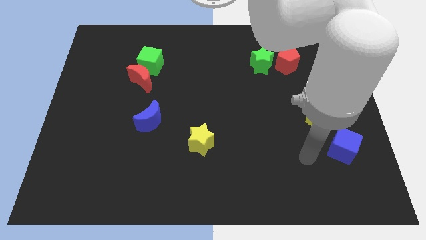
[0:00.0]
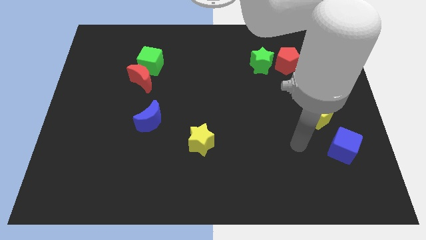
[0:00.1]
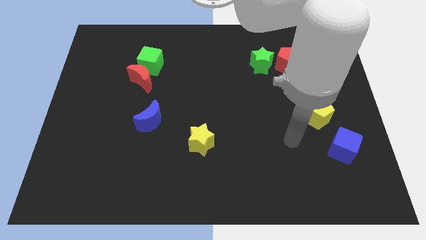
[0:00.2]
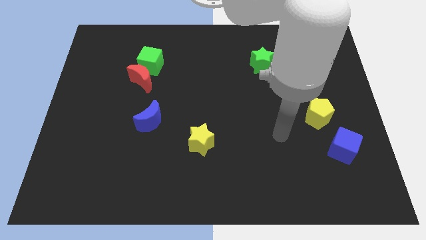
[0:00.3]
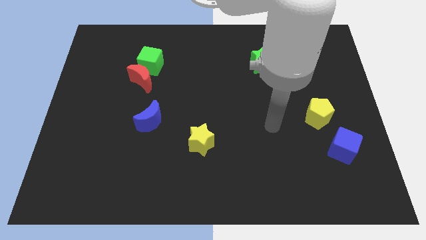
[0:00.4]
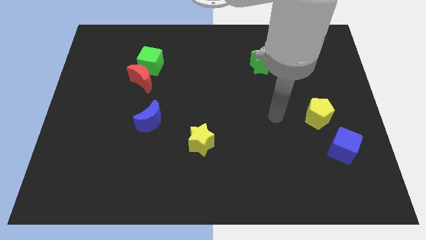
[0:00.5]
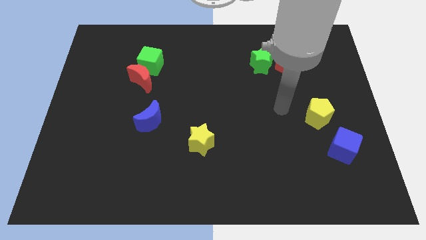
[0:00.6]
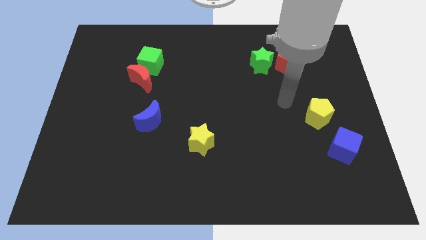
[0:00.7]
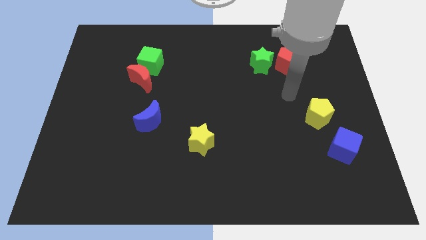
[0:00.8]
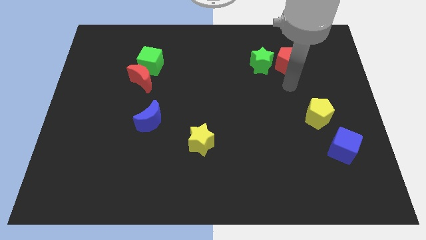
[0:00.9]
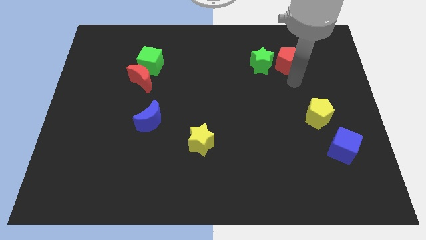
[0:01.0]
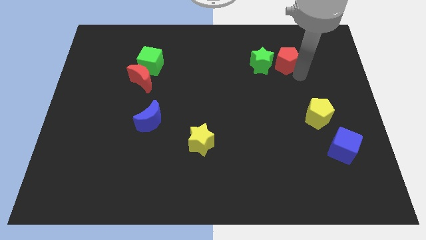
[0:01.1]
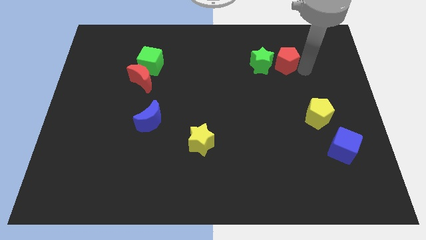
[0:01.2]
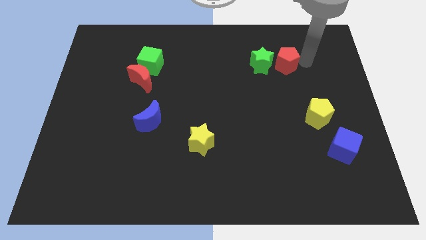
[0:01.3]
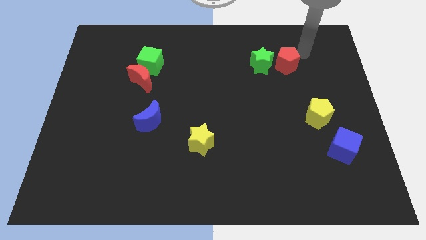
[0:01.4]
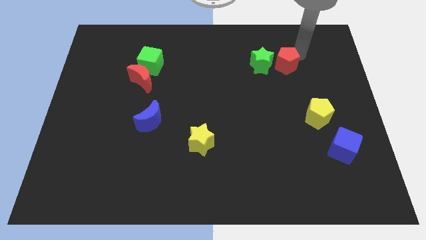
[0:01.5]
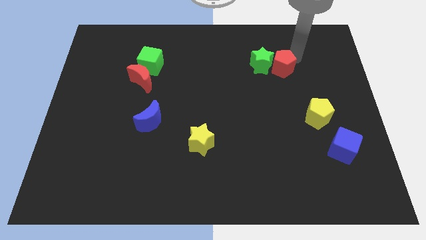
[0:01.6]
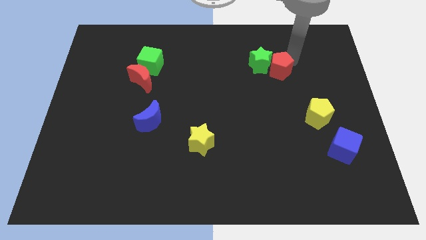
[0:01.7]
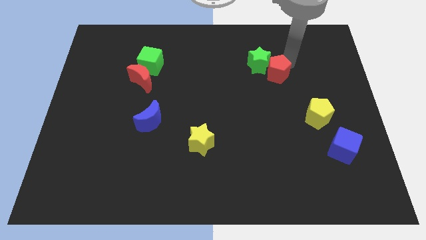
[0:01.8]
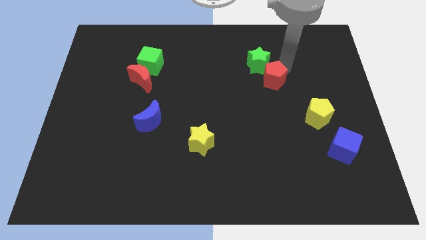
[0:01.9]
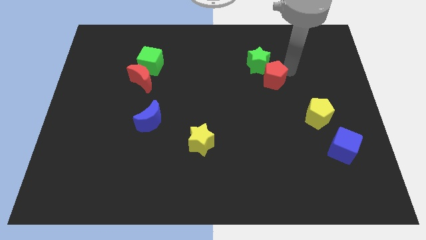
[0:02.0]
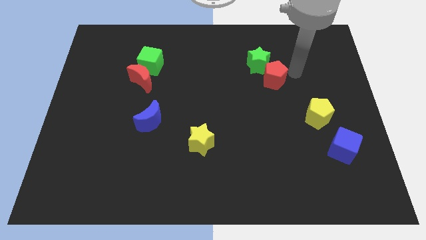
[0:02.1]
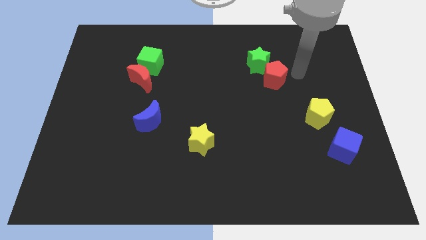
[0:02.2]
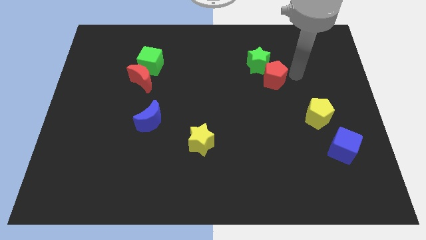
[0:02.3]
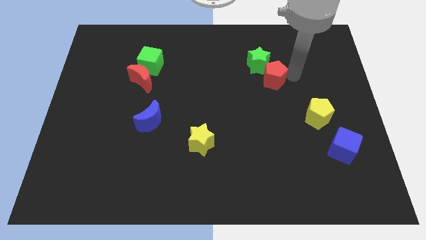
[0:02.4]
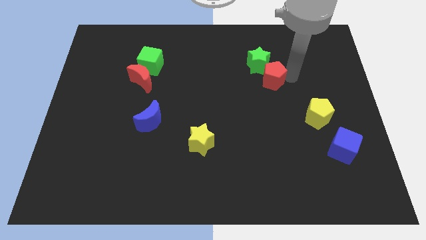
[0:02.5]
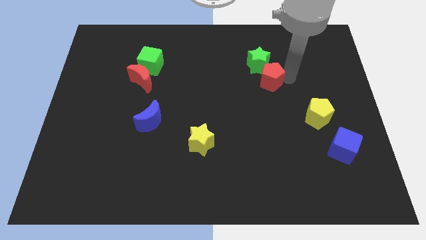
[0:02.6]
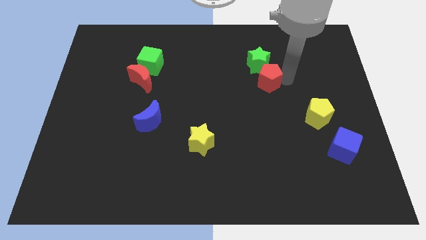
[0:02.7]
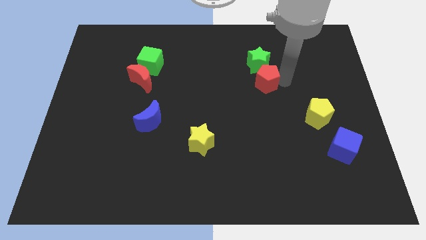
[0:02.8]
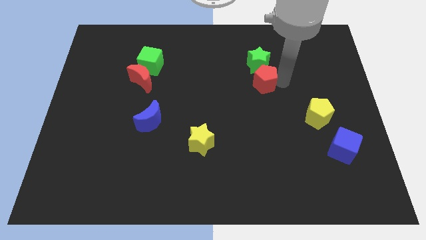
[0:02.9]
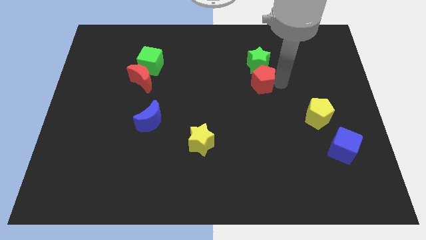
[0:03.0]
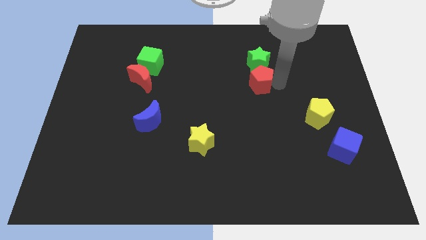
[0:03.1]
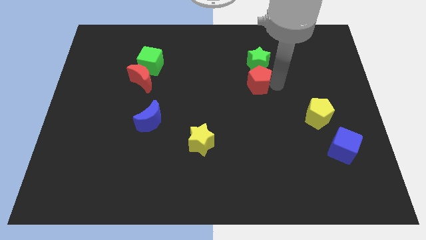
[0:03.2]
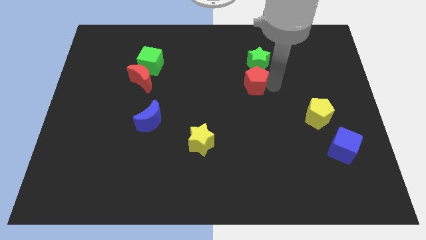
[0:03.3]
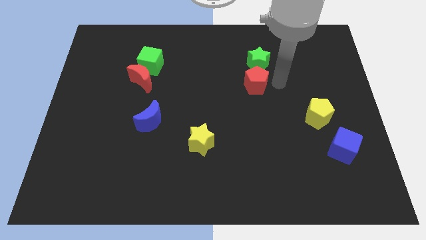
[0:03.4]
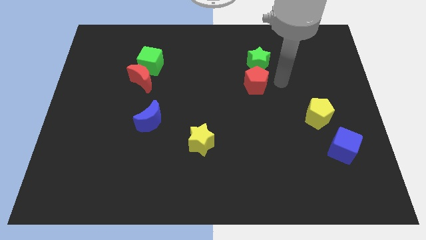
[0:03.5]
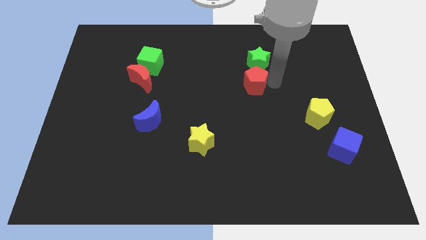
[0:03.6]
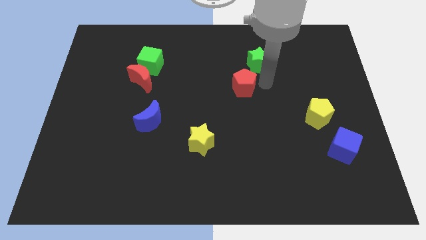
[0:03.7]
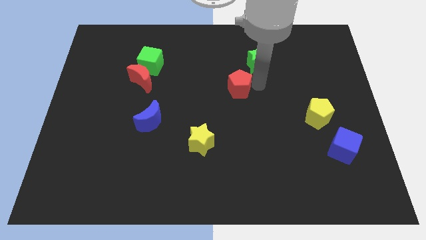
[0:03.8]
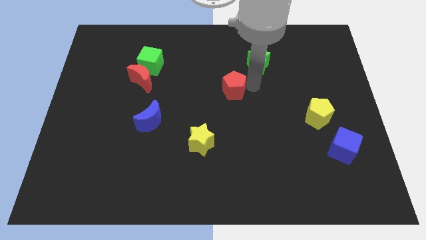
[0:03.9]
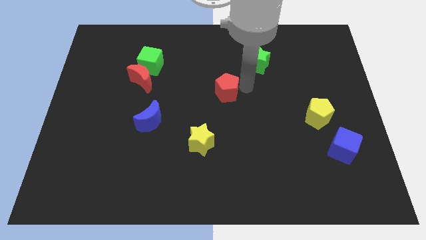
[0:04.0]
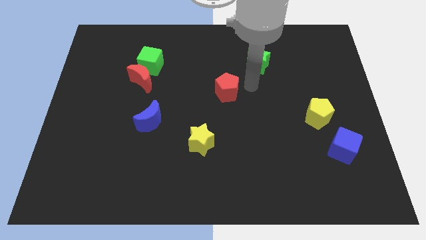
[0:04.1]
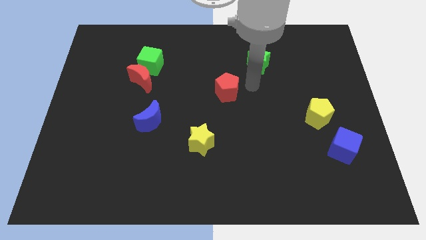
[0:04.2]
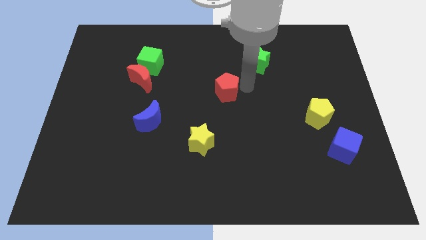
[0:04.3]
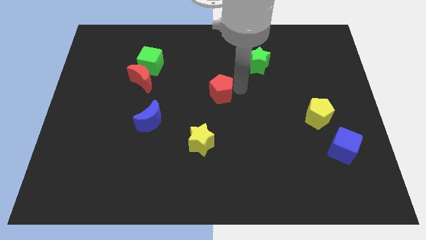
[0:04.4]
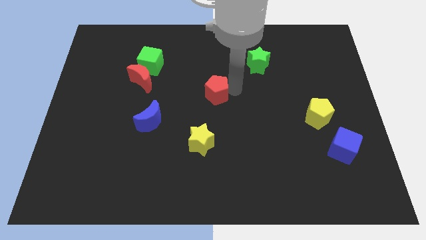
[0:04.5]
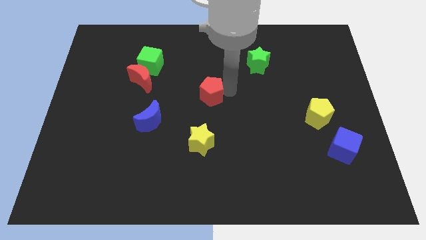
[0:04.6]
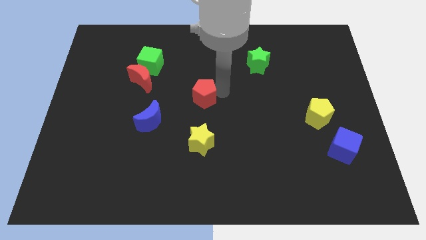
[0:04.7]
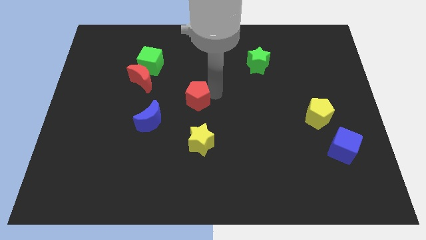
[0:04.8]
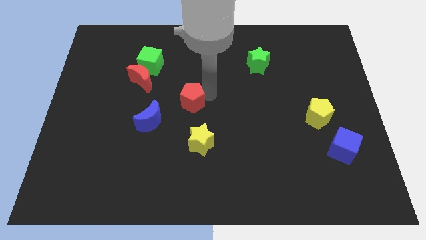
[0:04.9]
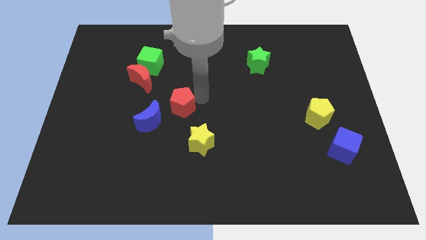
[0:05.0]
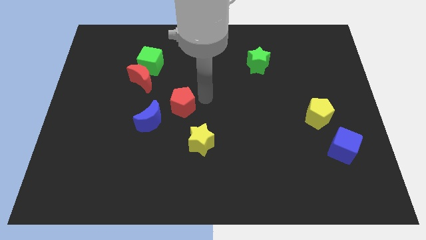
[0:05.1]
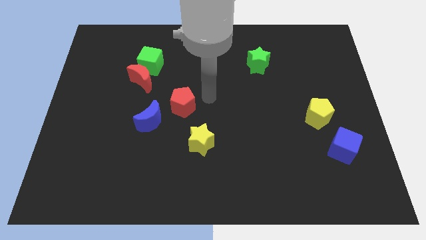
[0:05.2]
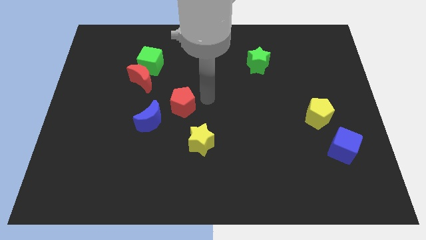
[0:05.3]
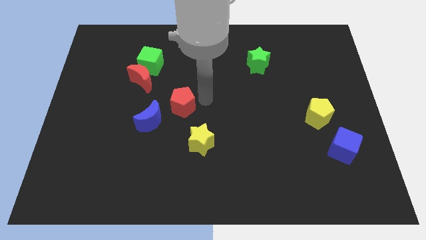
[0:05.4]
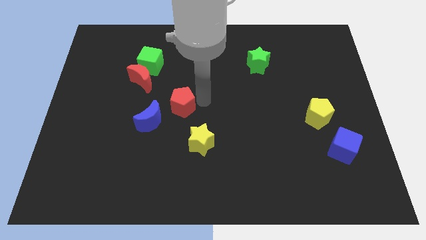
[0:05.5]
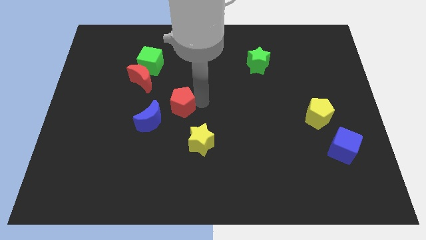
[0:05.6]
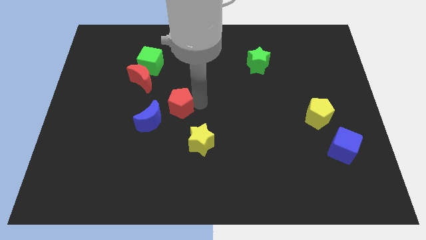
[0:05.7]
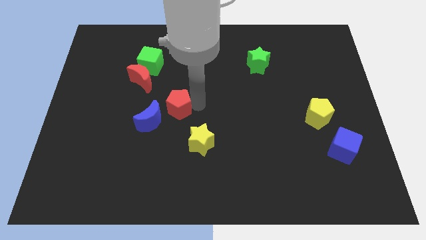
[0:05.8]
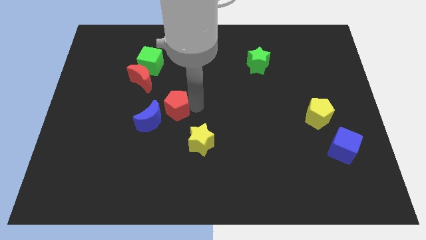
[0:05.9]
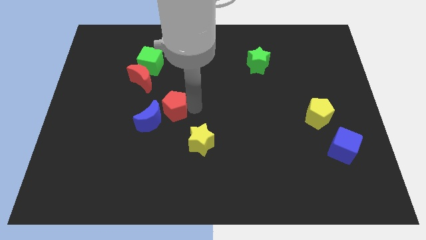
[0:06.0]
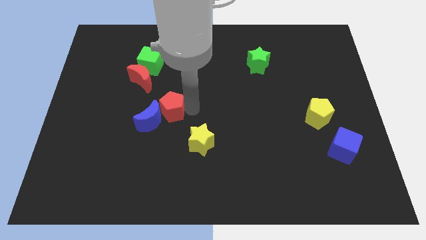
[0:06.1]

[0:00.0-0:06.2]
push the red pentagon to the blue moon
